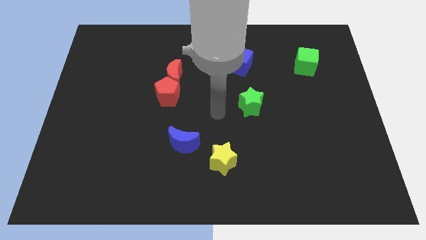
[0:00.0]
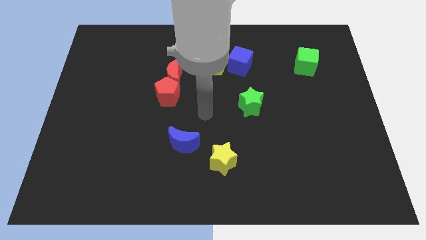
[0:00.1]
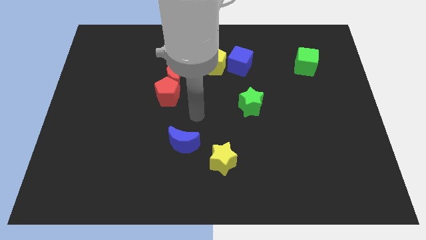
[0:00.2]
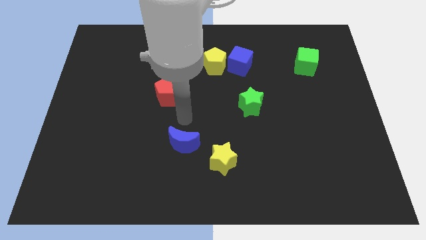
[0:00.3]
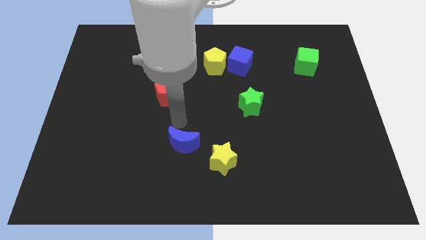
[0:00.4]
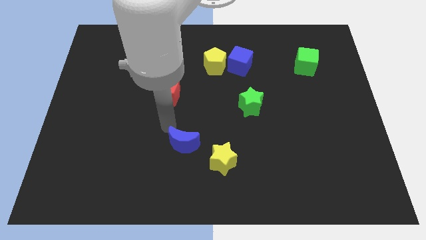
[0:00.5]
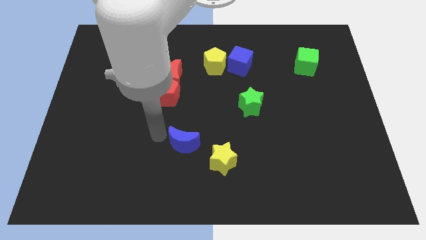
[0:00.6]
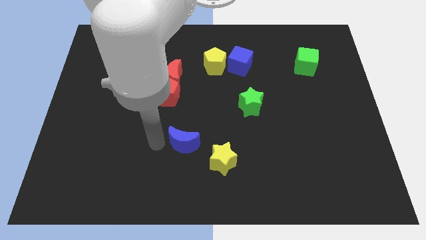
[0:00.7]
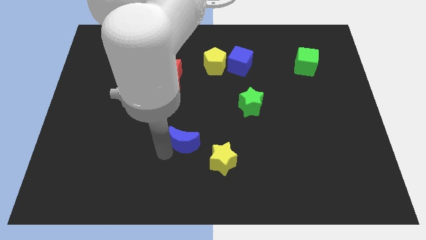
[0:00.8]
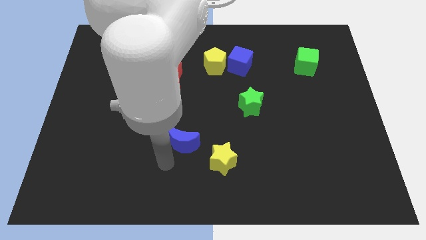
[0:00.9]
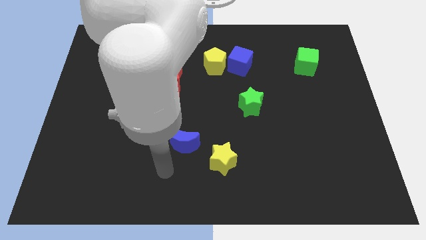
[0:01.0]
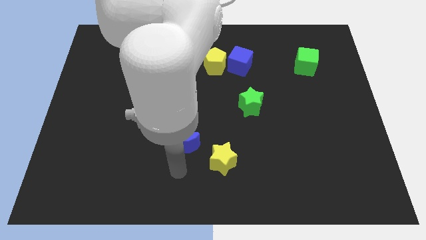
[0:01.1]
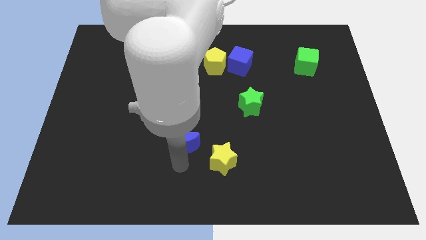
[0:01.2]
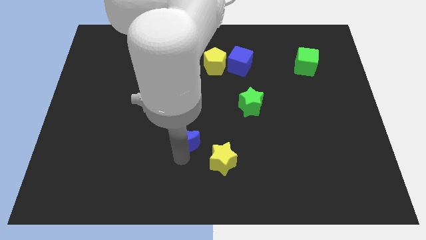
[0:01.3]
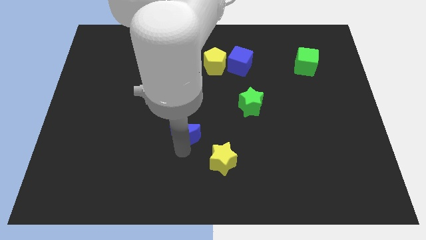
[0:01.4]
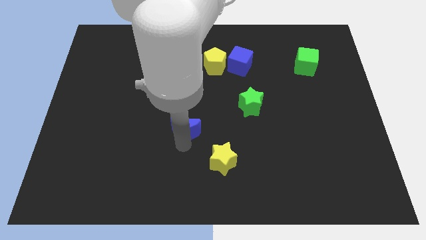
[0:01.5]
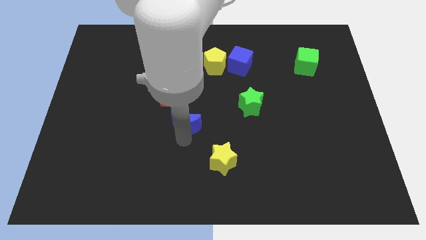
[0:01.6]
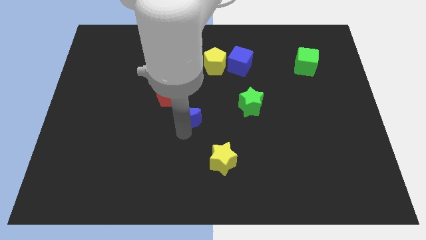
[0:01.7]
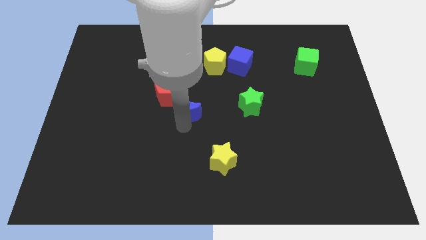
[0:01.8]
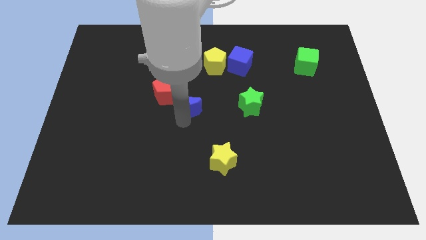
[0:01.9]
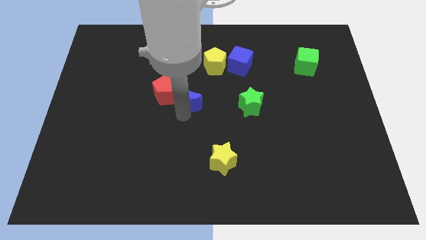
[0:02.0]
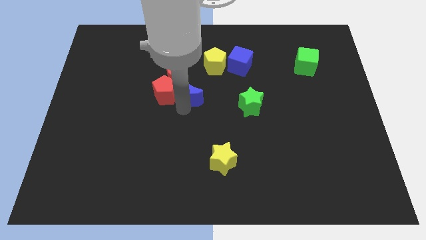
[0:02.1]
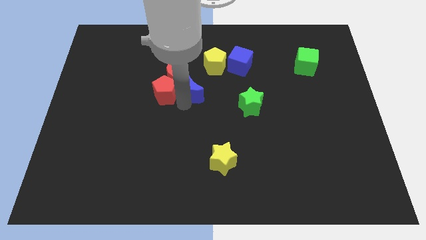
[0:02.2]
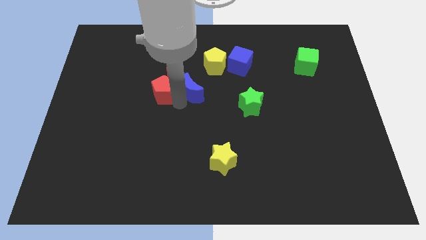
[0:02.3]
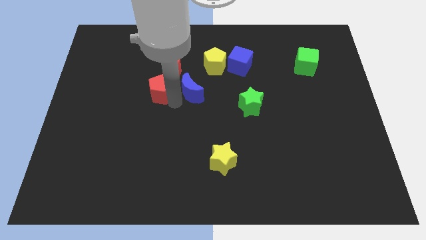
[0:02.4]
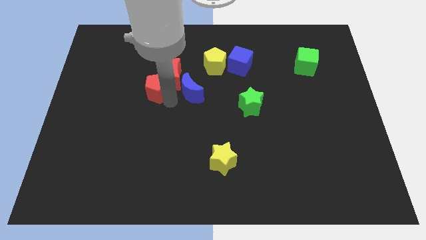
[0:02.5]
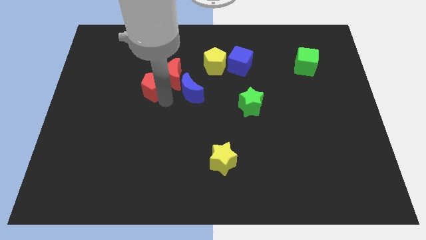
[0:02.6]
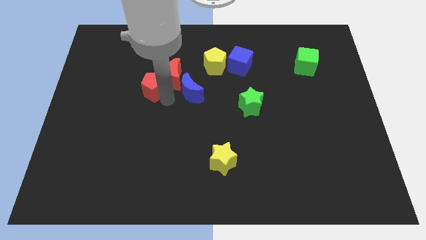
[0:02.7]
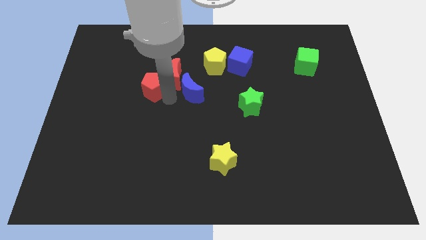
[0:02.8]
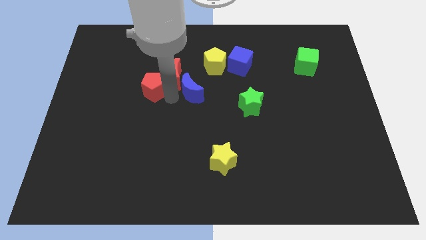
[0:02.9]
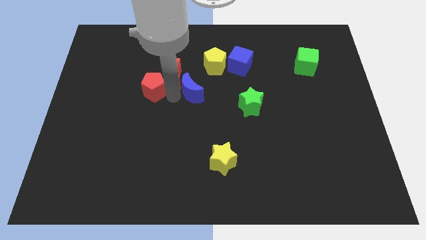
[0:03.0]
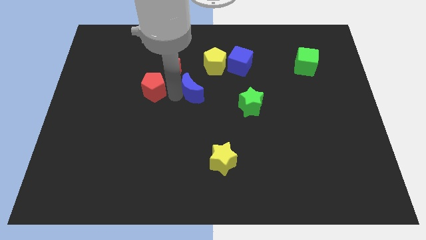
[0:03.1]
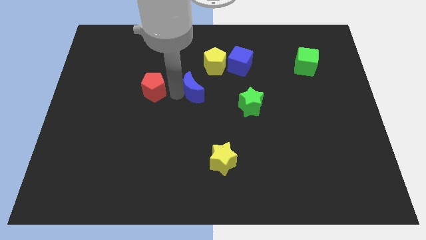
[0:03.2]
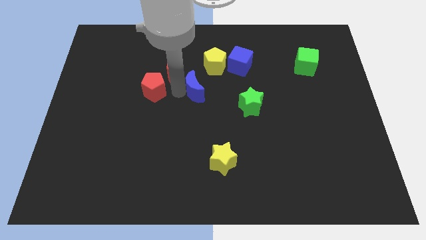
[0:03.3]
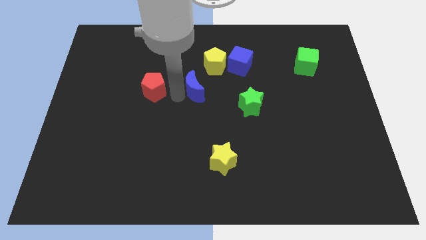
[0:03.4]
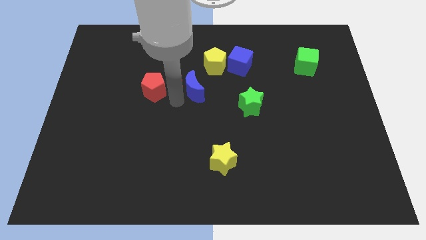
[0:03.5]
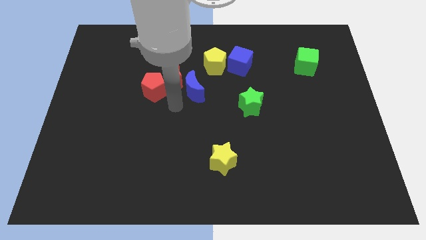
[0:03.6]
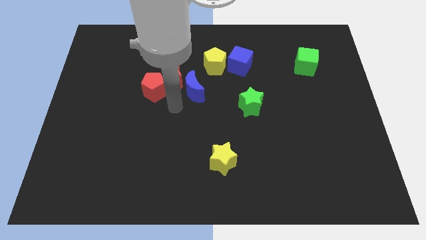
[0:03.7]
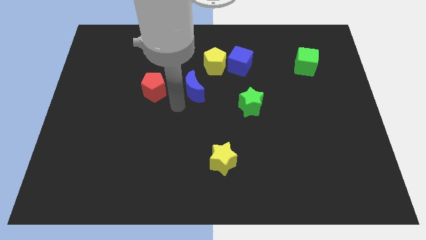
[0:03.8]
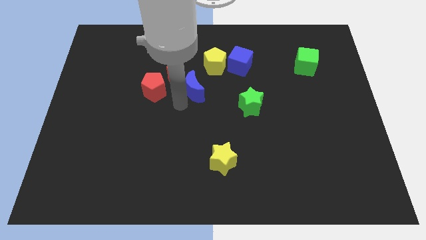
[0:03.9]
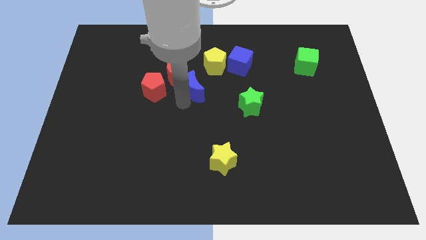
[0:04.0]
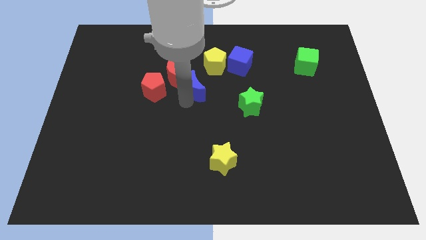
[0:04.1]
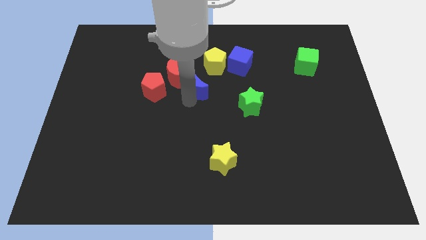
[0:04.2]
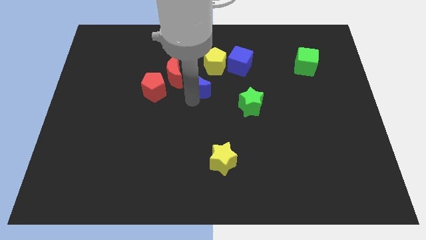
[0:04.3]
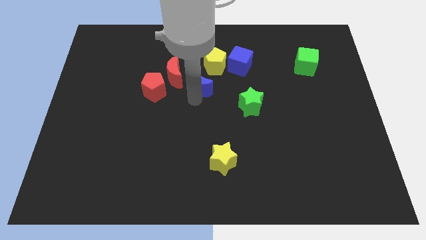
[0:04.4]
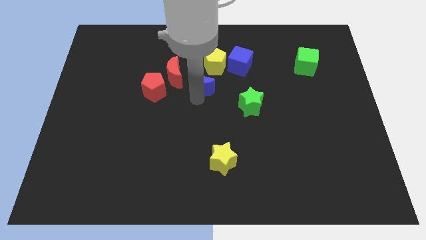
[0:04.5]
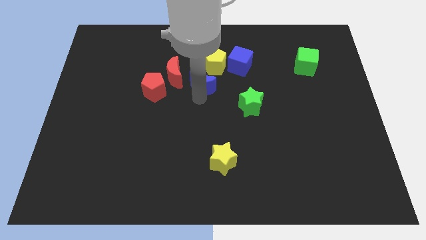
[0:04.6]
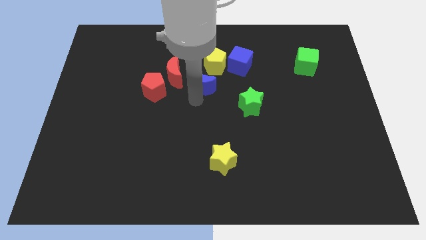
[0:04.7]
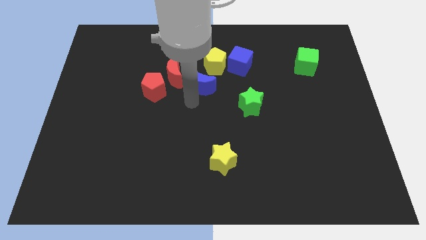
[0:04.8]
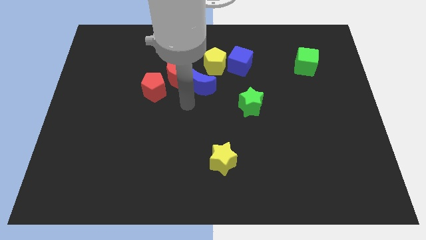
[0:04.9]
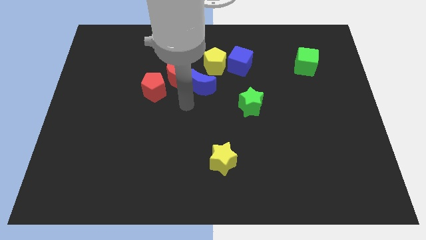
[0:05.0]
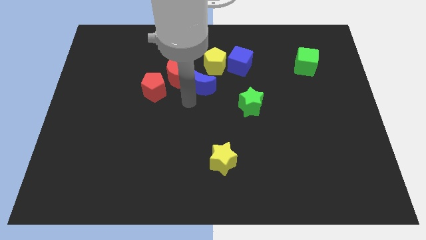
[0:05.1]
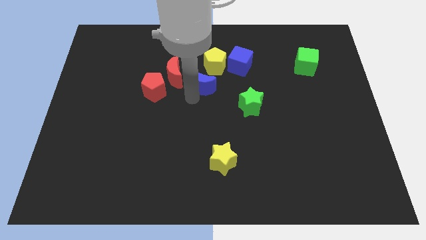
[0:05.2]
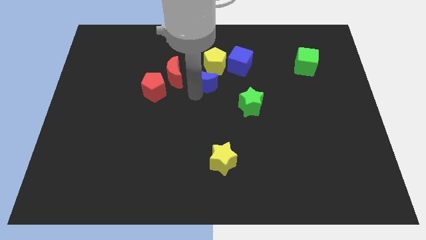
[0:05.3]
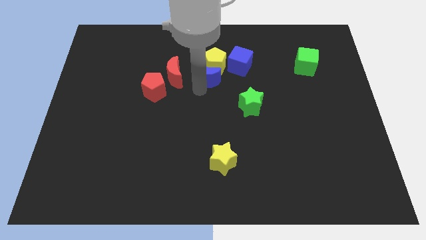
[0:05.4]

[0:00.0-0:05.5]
push the blue moon towards the yellow pentagon

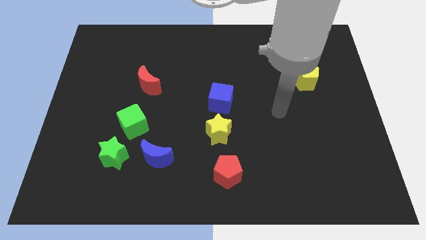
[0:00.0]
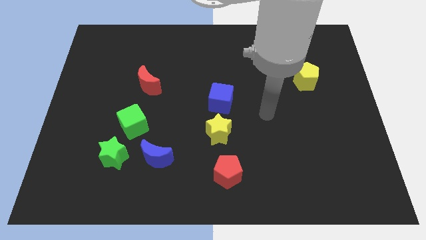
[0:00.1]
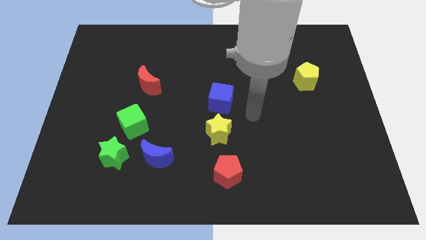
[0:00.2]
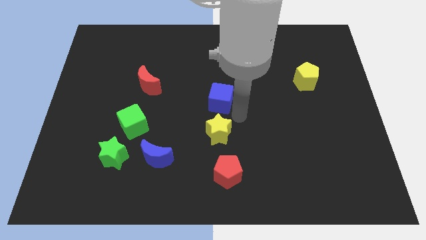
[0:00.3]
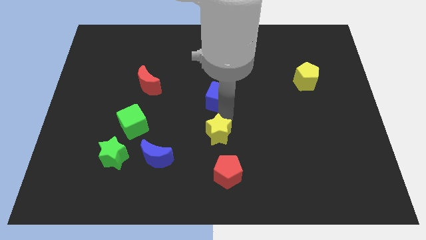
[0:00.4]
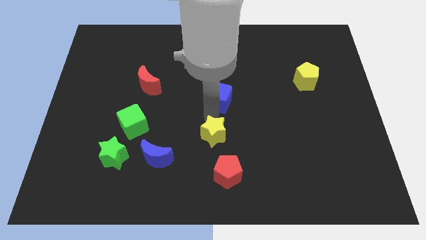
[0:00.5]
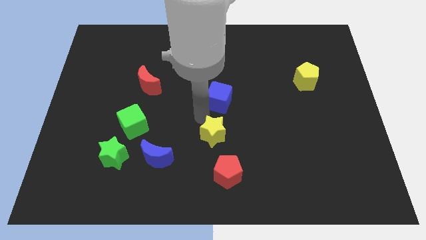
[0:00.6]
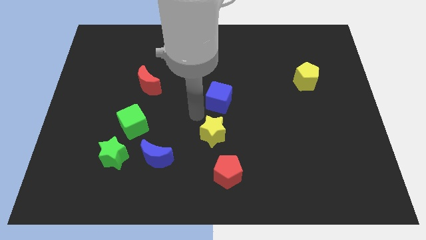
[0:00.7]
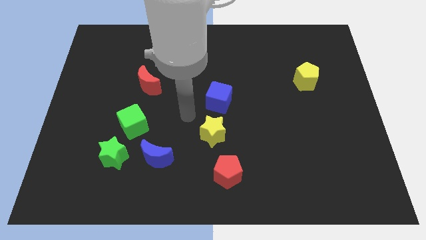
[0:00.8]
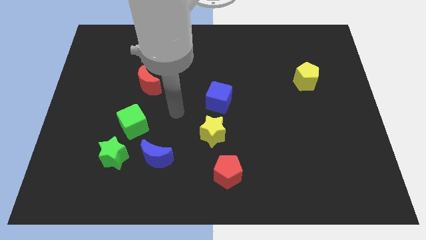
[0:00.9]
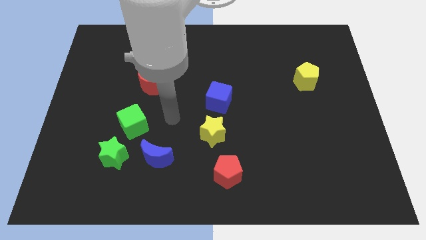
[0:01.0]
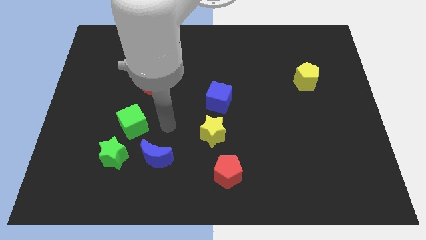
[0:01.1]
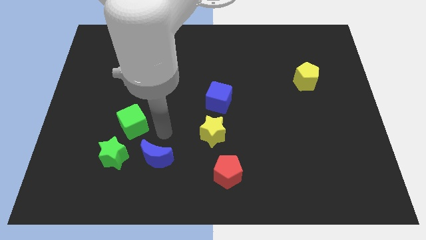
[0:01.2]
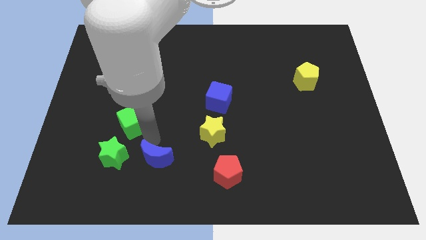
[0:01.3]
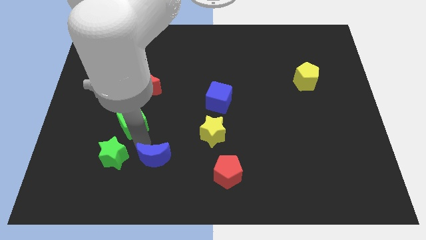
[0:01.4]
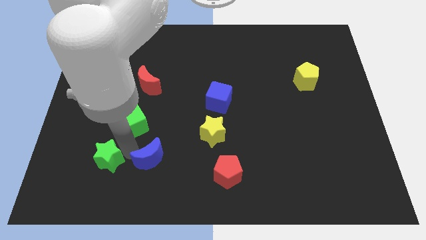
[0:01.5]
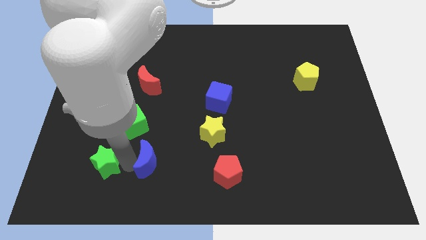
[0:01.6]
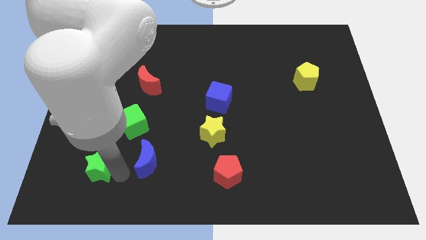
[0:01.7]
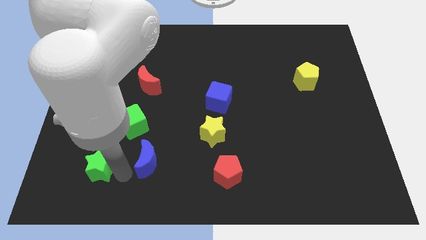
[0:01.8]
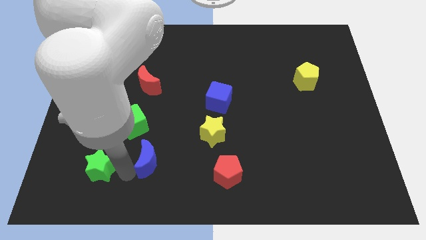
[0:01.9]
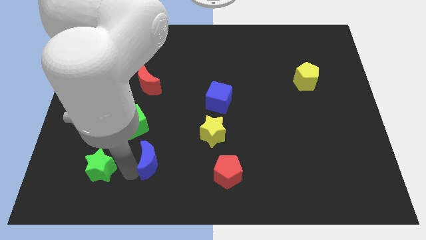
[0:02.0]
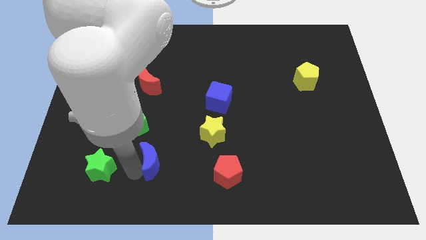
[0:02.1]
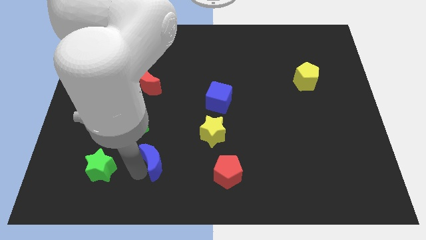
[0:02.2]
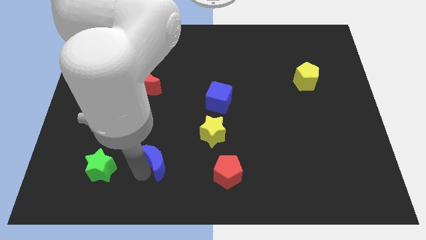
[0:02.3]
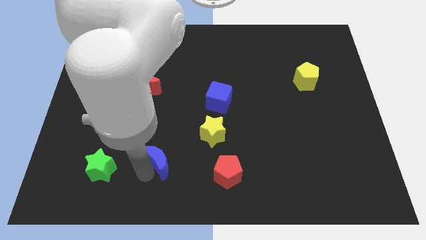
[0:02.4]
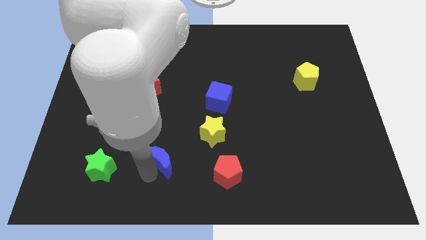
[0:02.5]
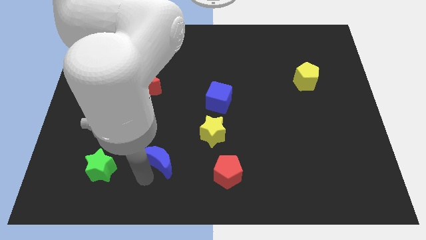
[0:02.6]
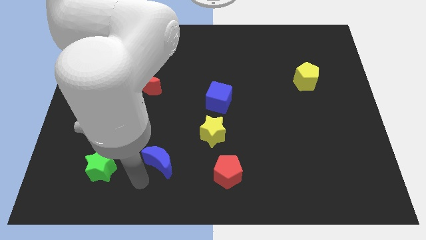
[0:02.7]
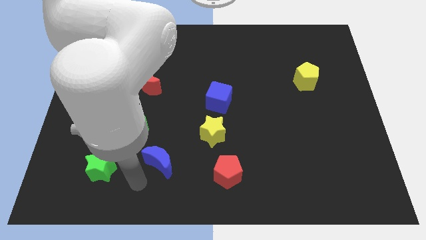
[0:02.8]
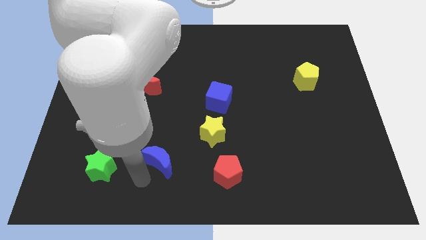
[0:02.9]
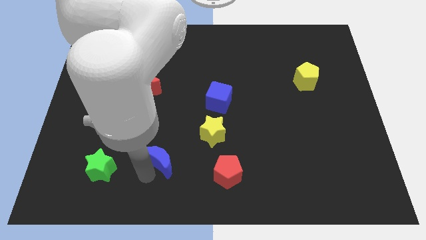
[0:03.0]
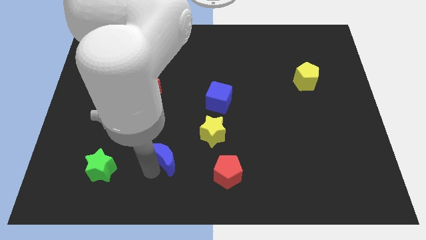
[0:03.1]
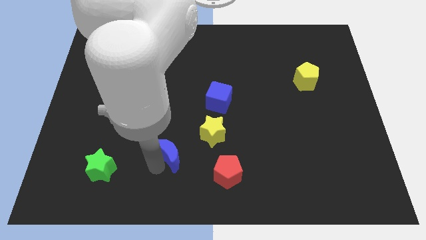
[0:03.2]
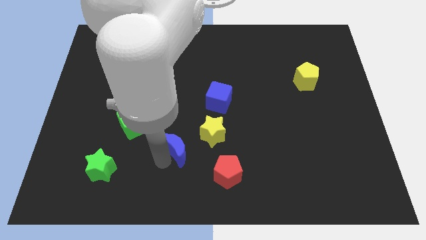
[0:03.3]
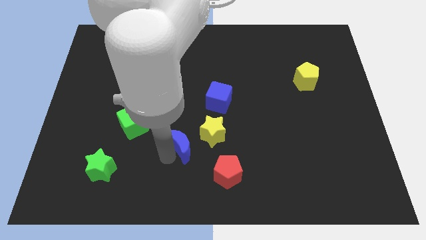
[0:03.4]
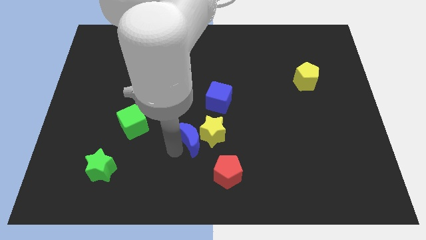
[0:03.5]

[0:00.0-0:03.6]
move the blue moon close to the yellow star
